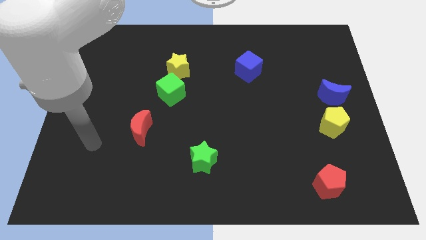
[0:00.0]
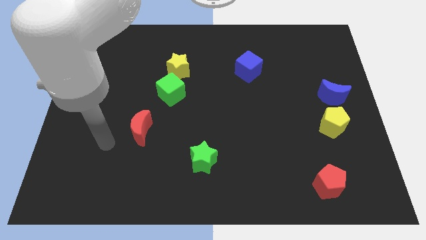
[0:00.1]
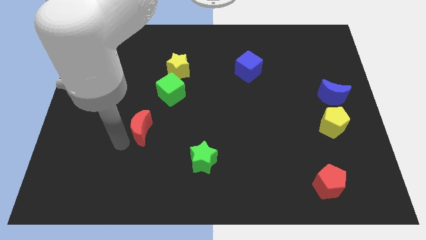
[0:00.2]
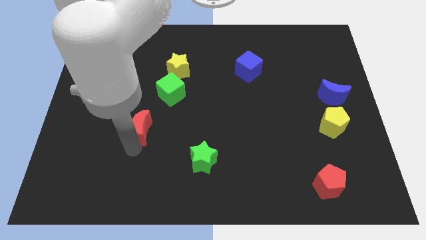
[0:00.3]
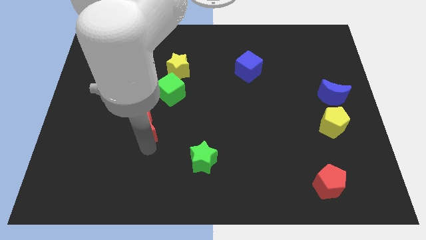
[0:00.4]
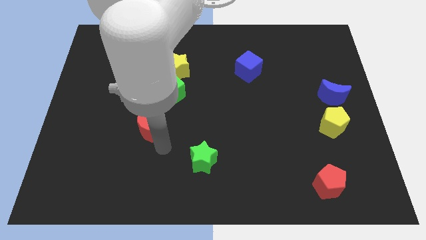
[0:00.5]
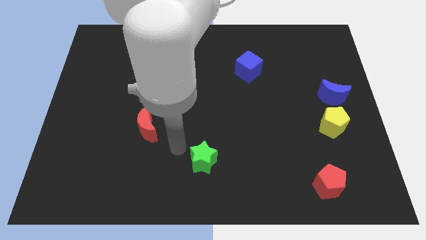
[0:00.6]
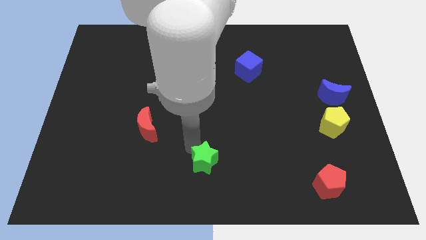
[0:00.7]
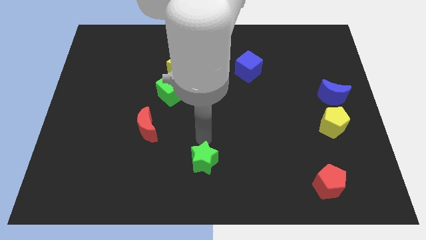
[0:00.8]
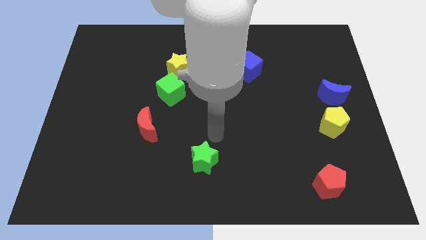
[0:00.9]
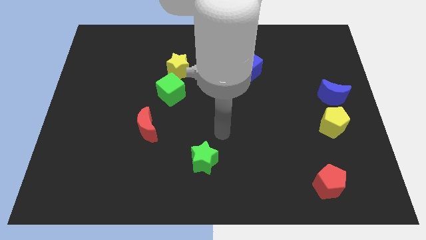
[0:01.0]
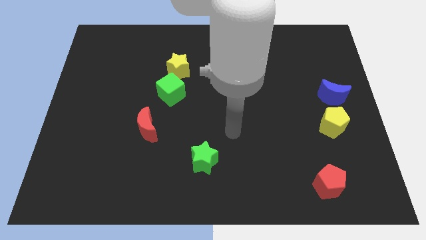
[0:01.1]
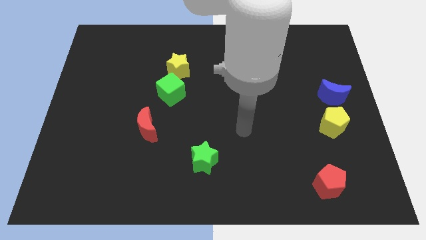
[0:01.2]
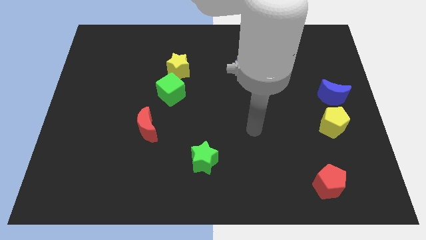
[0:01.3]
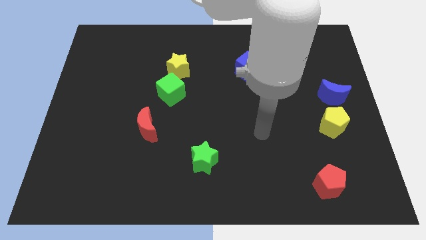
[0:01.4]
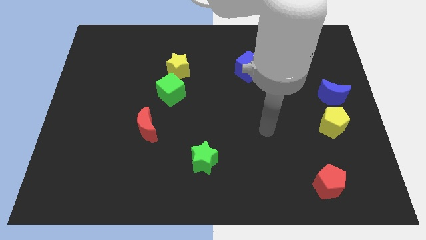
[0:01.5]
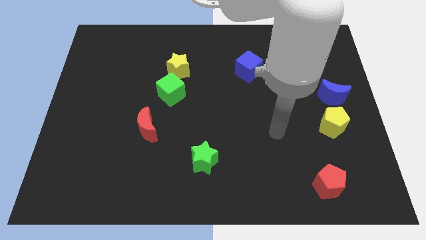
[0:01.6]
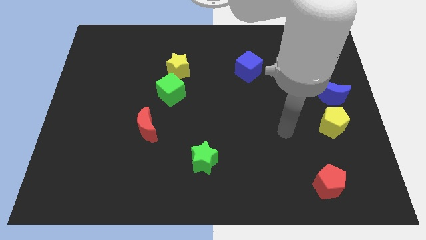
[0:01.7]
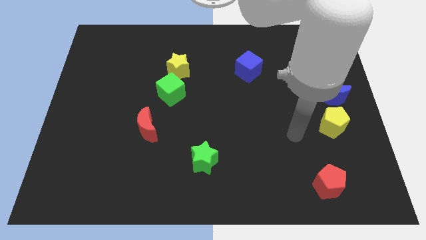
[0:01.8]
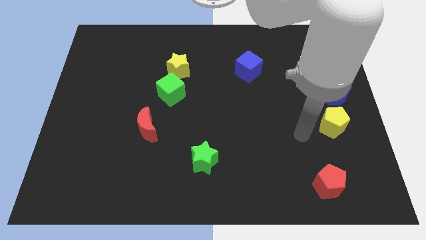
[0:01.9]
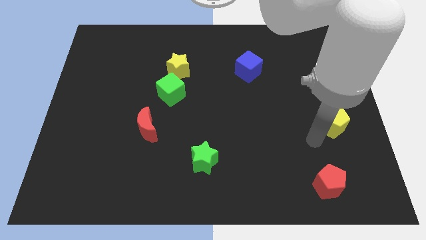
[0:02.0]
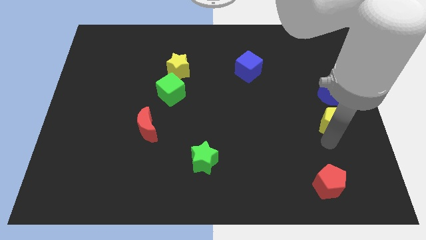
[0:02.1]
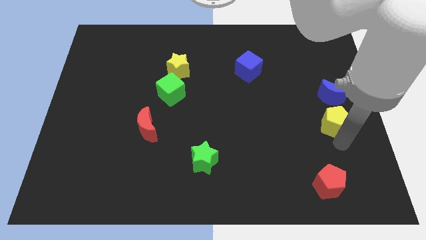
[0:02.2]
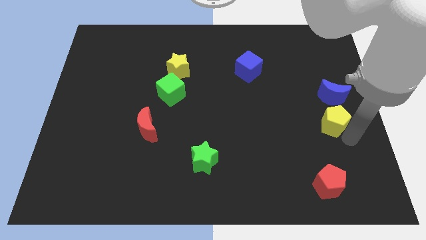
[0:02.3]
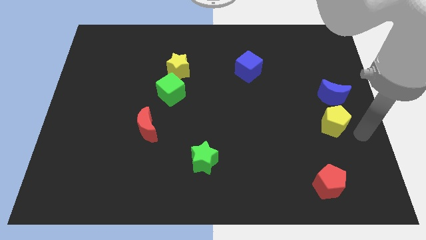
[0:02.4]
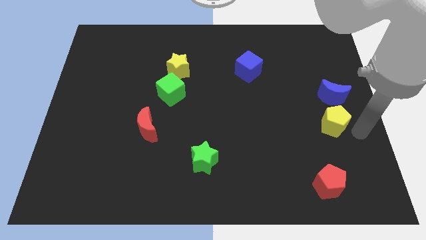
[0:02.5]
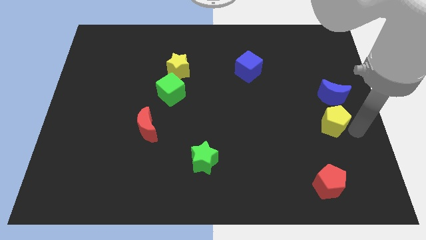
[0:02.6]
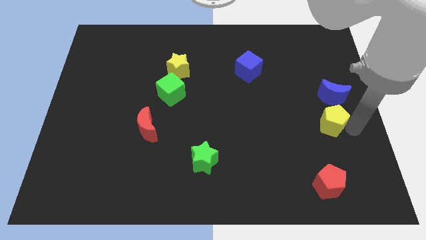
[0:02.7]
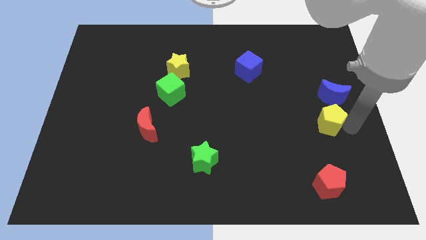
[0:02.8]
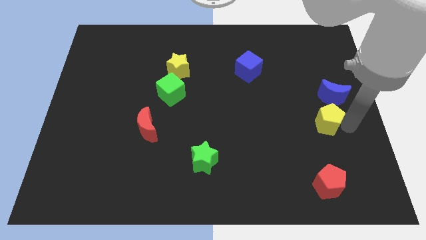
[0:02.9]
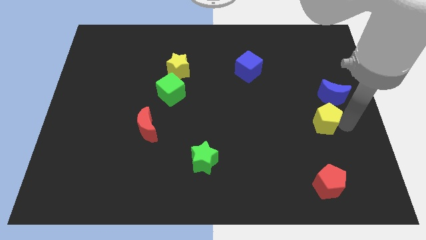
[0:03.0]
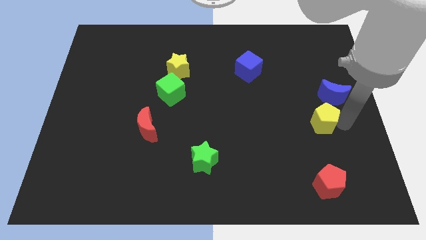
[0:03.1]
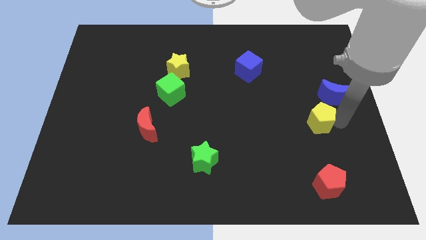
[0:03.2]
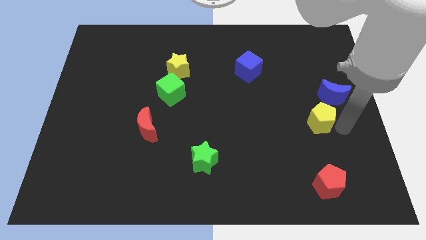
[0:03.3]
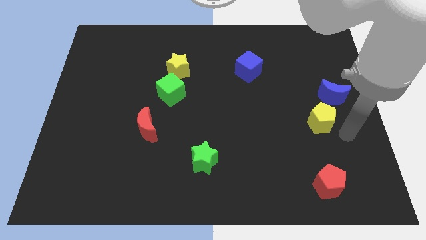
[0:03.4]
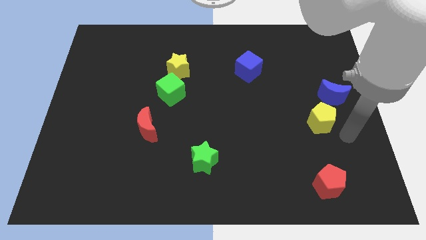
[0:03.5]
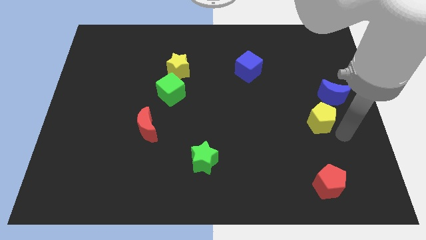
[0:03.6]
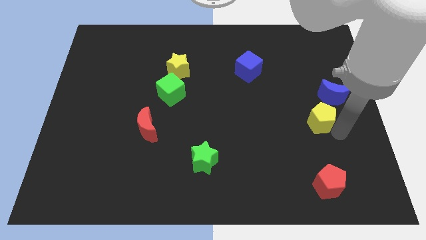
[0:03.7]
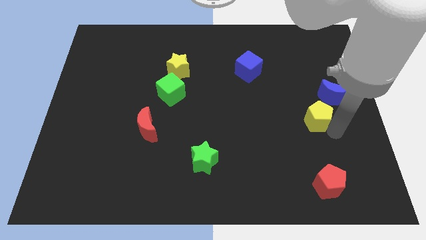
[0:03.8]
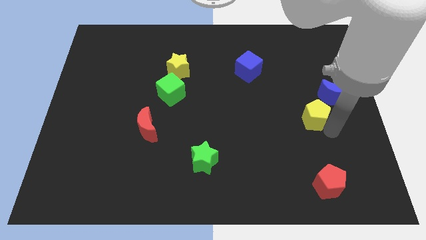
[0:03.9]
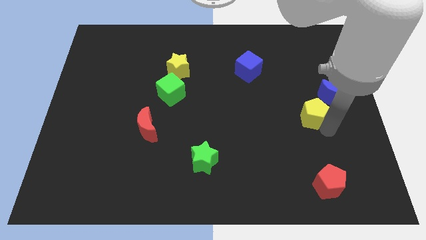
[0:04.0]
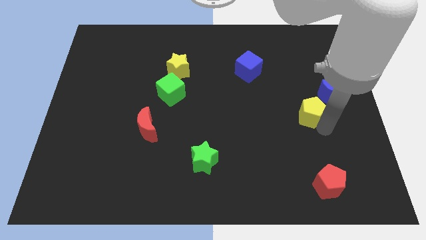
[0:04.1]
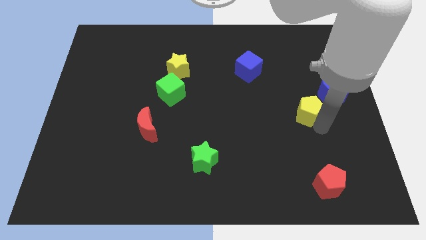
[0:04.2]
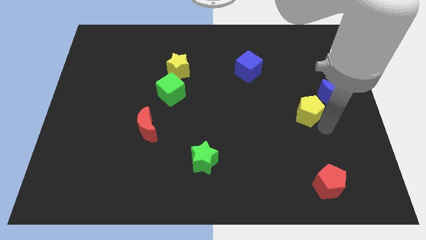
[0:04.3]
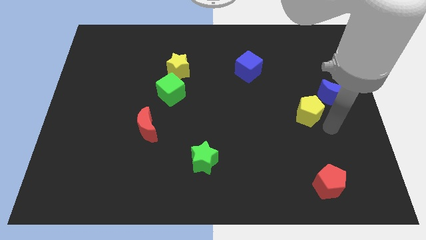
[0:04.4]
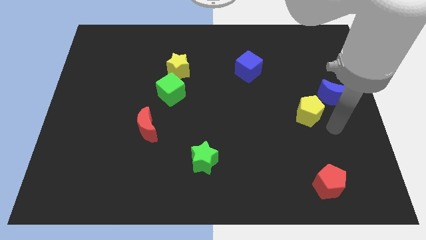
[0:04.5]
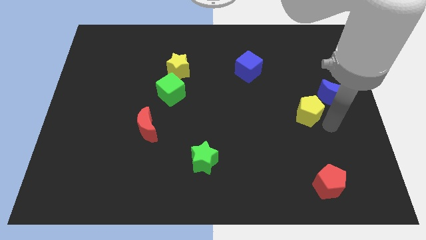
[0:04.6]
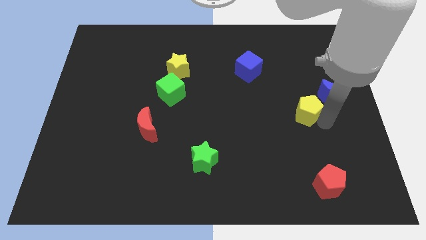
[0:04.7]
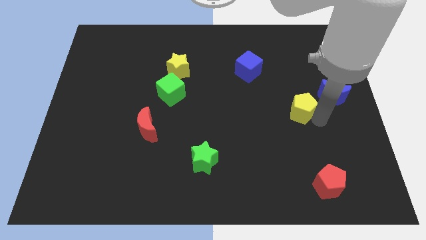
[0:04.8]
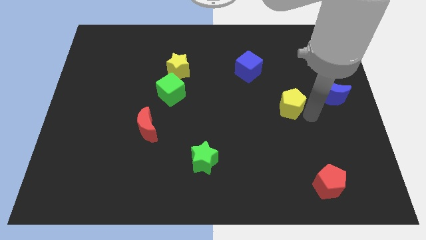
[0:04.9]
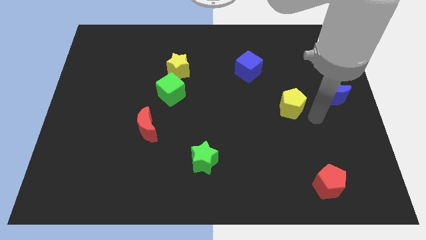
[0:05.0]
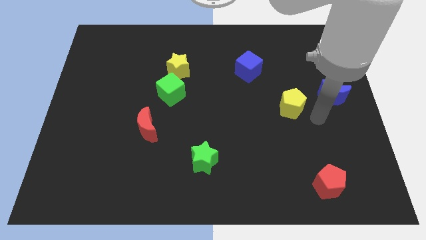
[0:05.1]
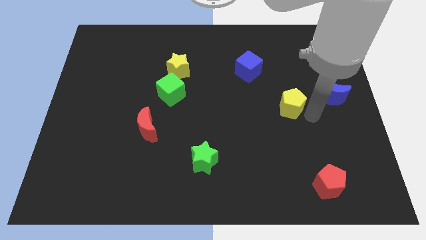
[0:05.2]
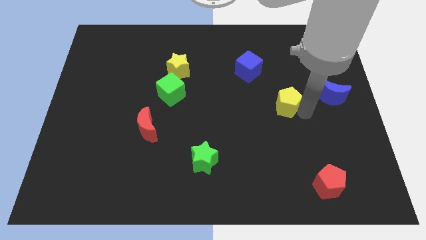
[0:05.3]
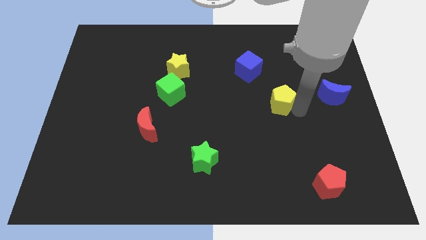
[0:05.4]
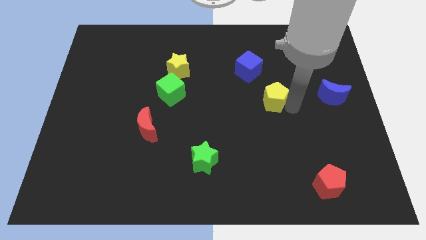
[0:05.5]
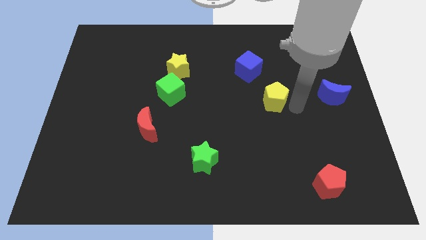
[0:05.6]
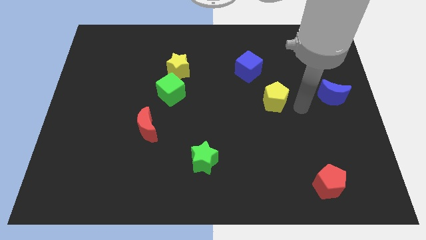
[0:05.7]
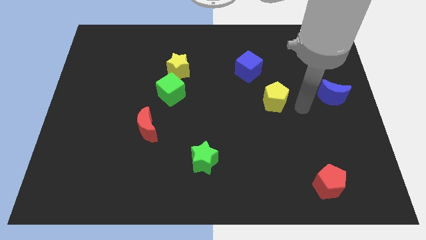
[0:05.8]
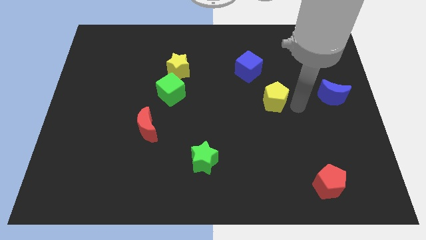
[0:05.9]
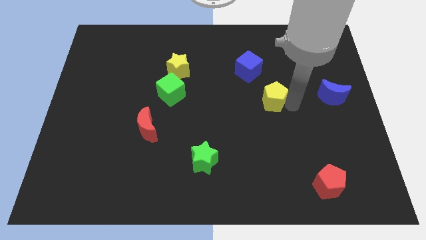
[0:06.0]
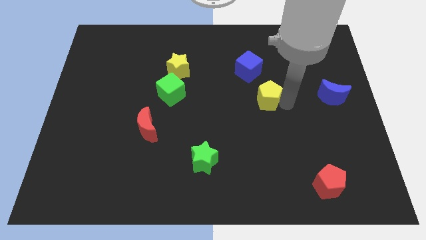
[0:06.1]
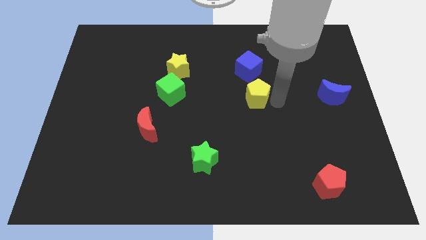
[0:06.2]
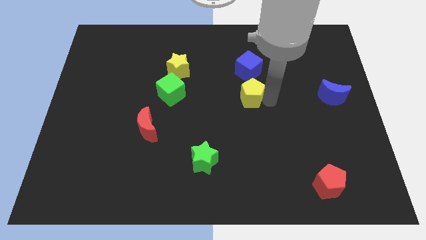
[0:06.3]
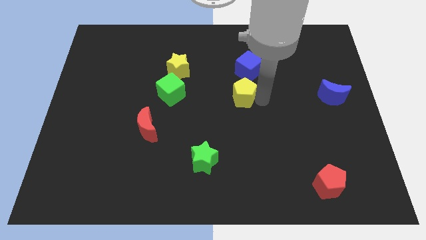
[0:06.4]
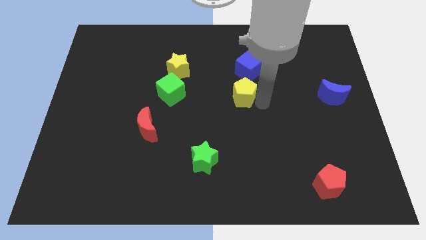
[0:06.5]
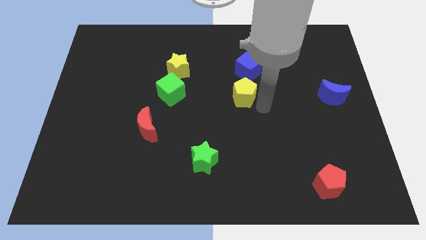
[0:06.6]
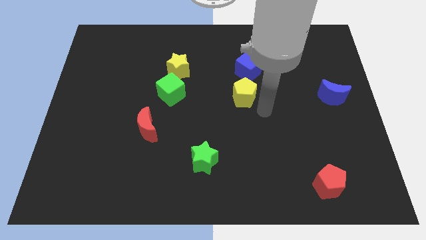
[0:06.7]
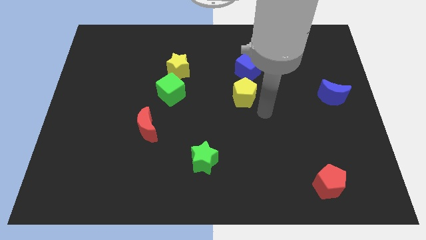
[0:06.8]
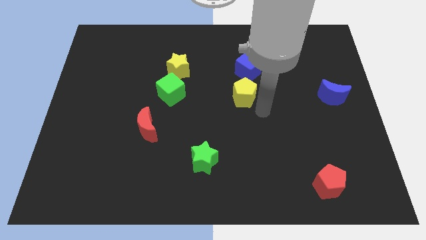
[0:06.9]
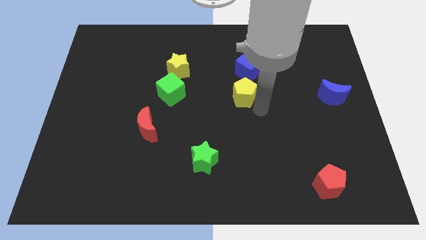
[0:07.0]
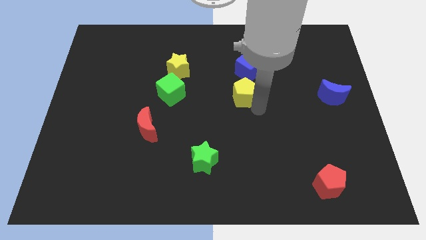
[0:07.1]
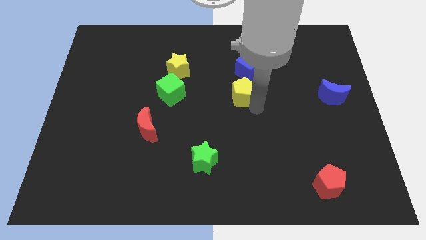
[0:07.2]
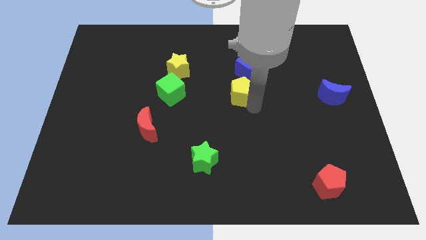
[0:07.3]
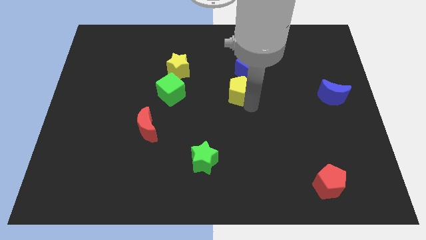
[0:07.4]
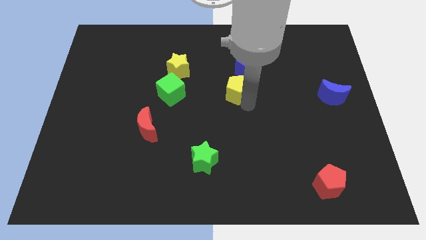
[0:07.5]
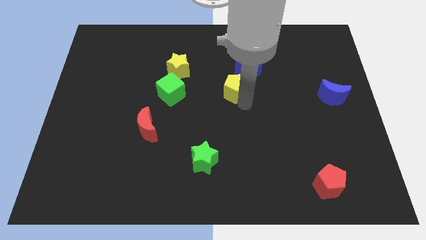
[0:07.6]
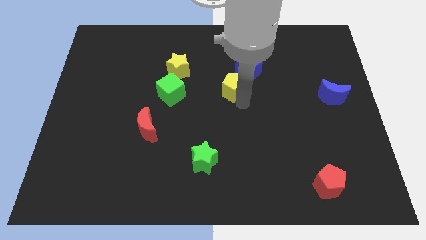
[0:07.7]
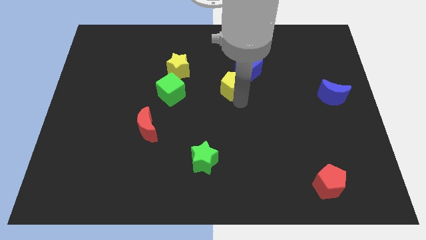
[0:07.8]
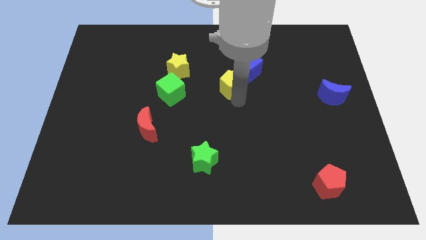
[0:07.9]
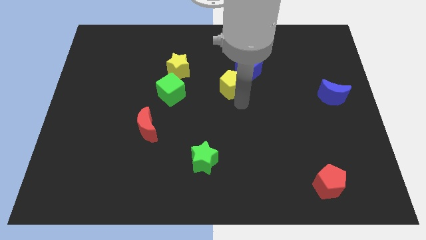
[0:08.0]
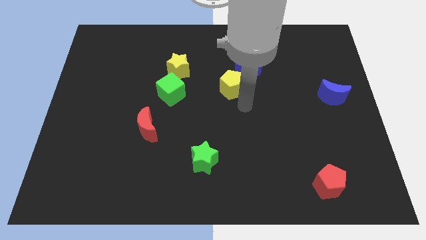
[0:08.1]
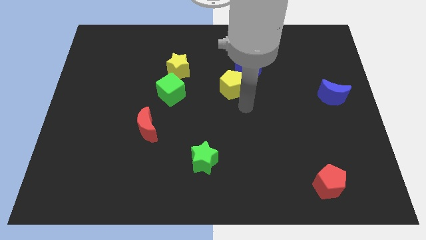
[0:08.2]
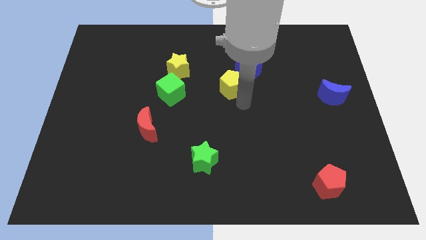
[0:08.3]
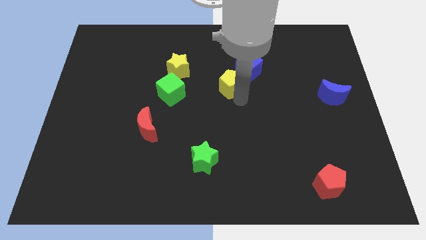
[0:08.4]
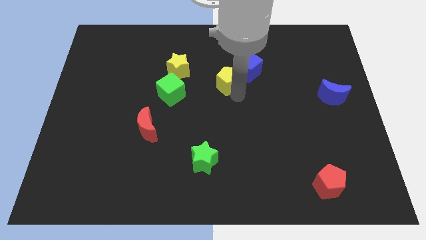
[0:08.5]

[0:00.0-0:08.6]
push the yellow pentagon just left of the blue cube
